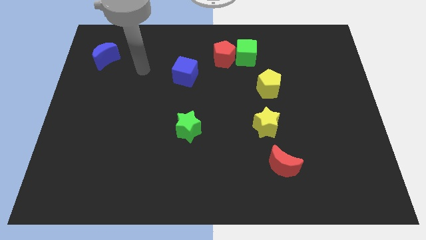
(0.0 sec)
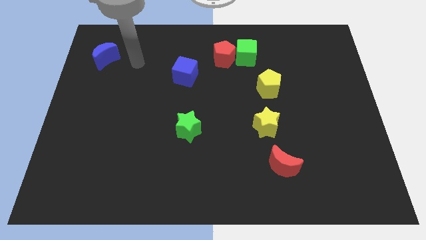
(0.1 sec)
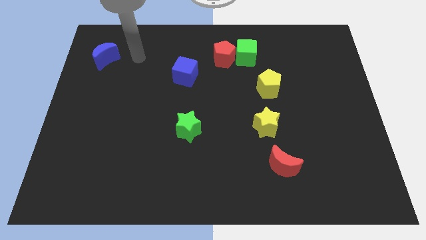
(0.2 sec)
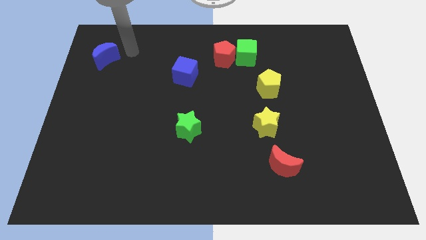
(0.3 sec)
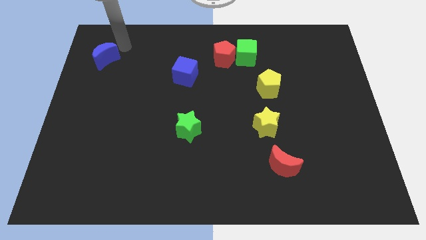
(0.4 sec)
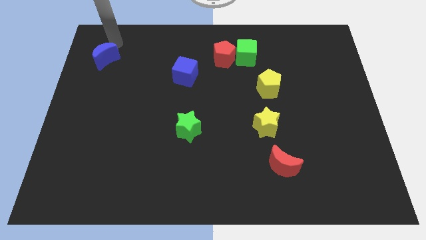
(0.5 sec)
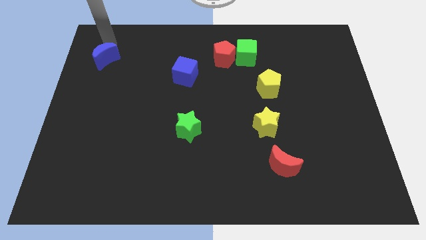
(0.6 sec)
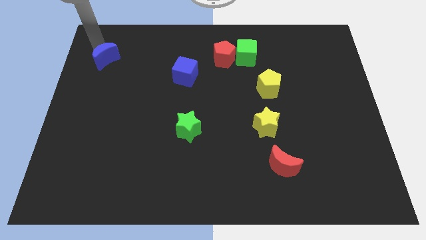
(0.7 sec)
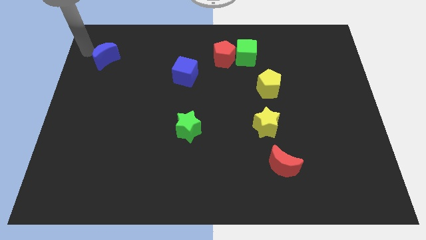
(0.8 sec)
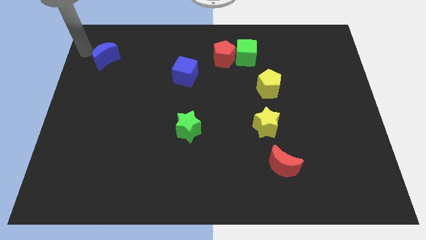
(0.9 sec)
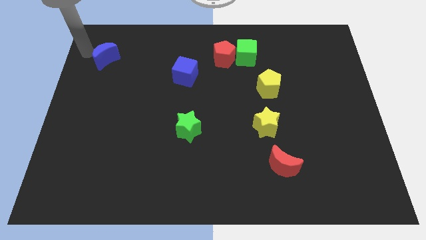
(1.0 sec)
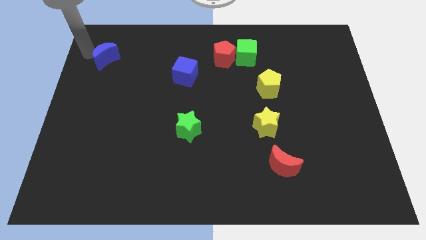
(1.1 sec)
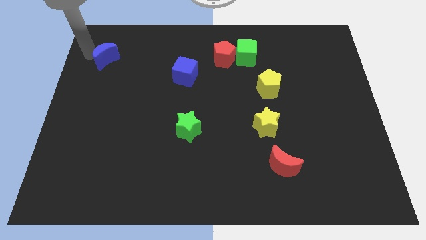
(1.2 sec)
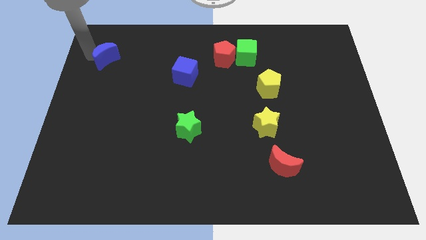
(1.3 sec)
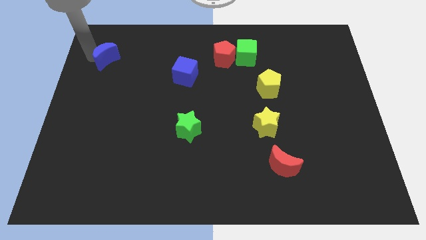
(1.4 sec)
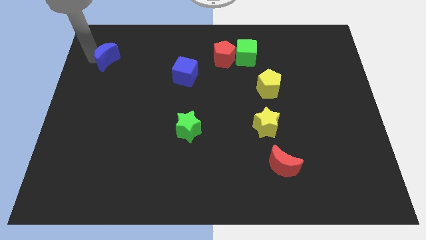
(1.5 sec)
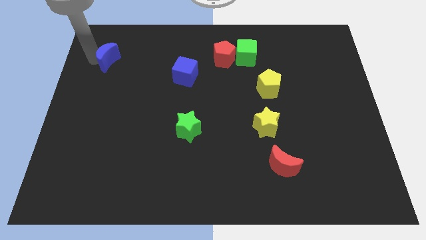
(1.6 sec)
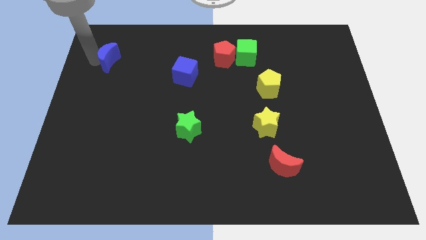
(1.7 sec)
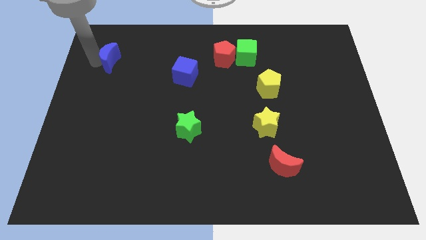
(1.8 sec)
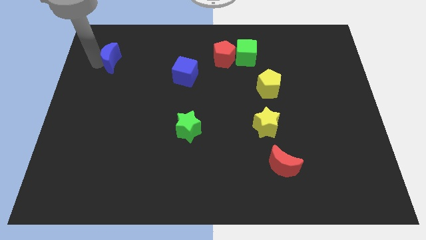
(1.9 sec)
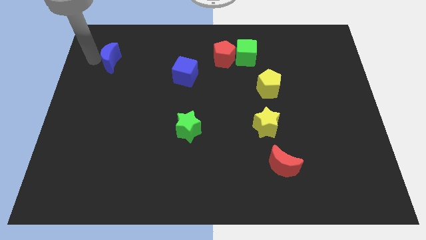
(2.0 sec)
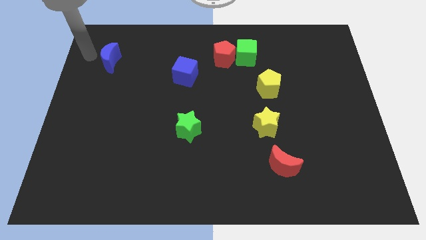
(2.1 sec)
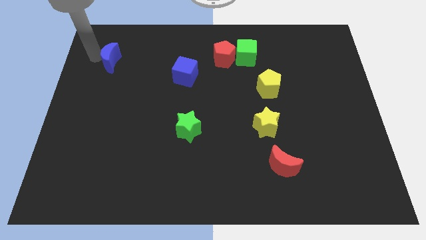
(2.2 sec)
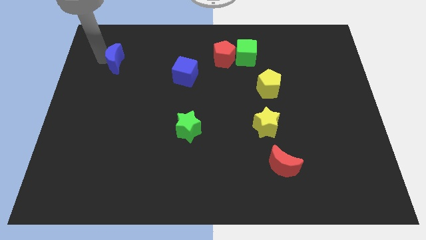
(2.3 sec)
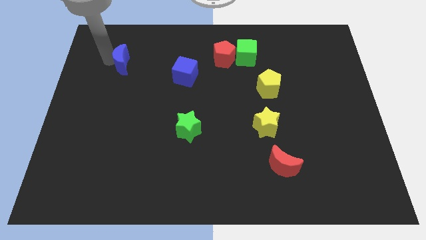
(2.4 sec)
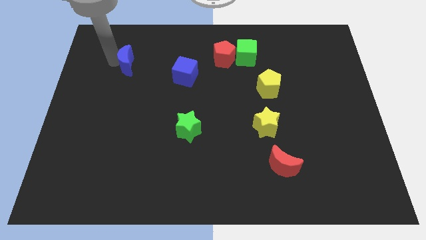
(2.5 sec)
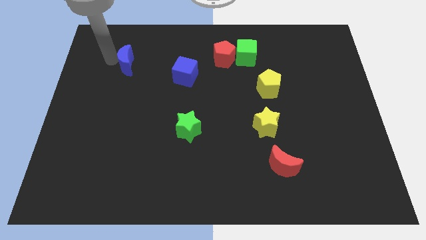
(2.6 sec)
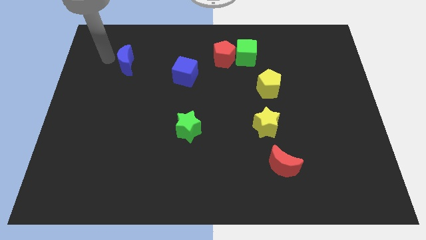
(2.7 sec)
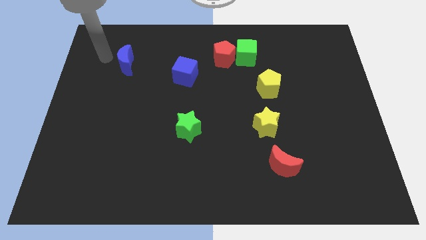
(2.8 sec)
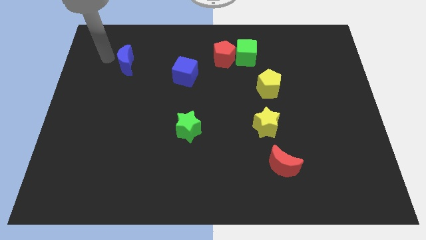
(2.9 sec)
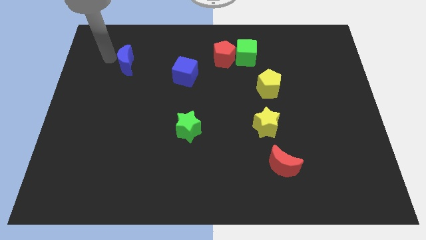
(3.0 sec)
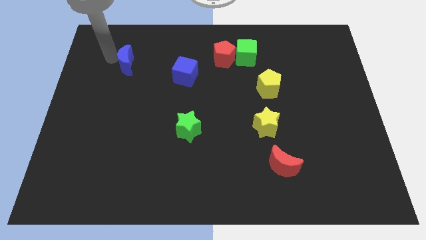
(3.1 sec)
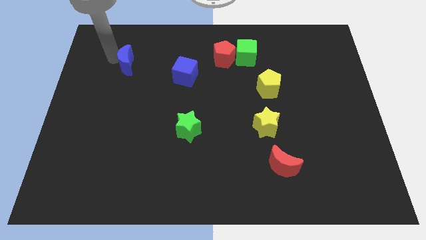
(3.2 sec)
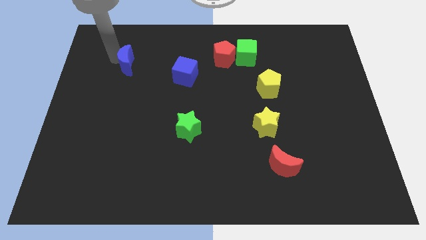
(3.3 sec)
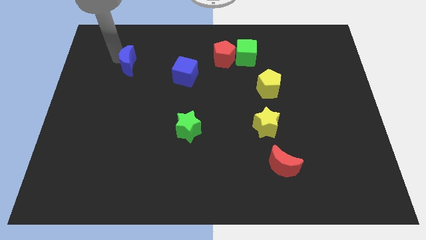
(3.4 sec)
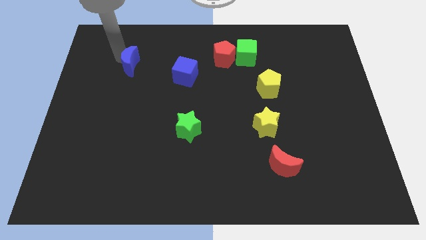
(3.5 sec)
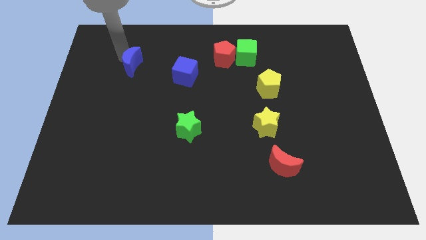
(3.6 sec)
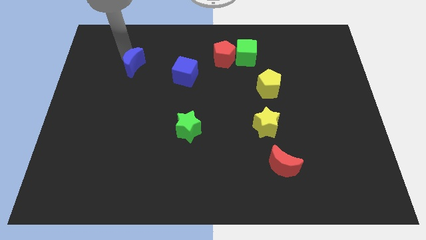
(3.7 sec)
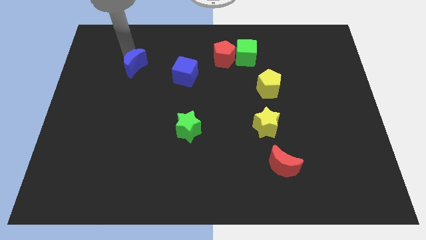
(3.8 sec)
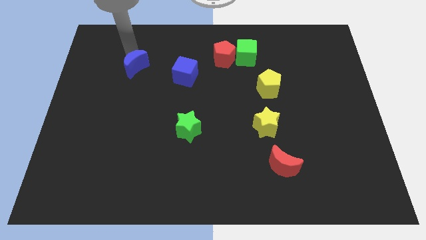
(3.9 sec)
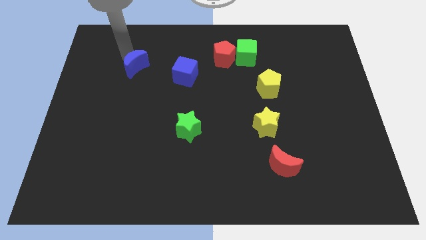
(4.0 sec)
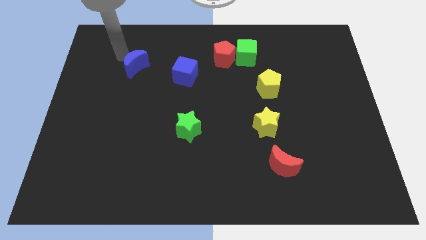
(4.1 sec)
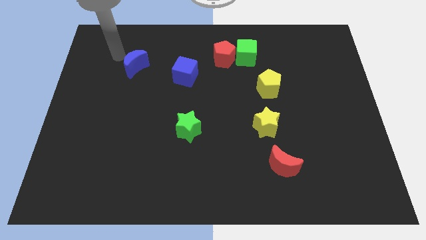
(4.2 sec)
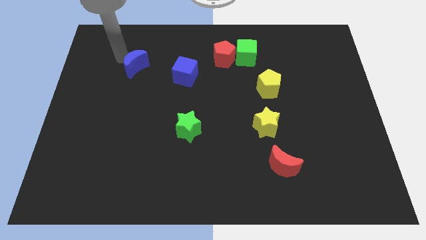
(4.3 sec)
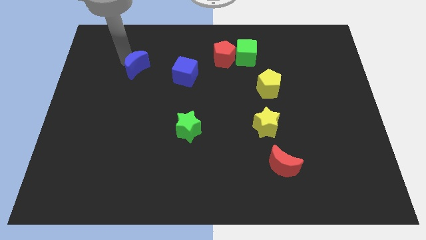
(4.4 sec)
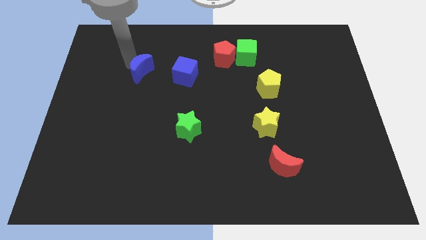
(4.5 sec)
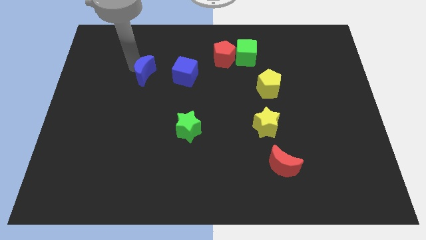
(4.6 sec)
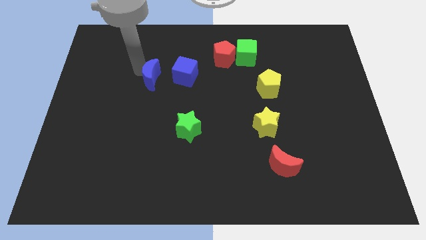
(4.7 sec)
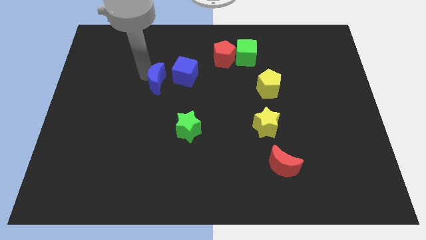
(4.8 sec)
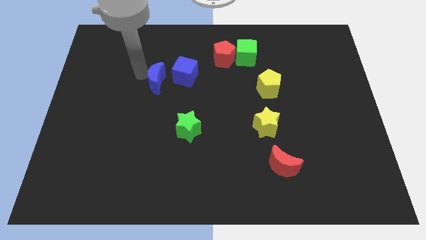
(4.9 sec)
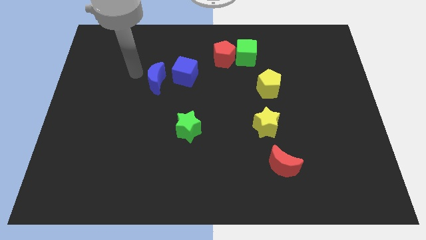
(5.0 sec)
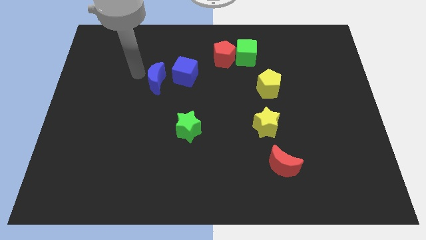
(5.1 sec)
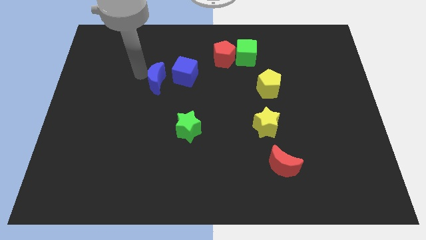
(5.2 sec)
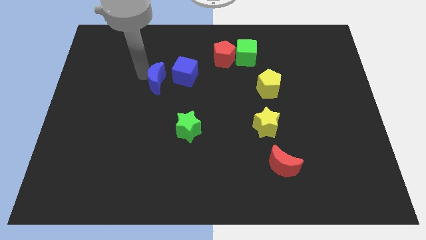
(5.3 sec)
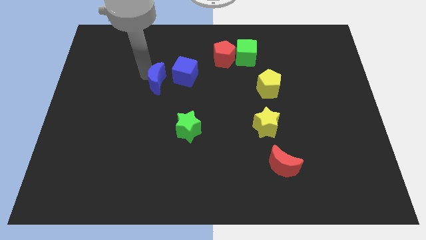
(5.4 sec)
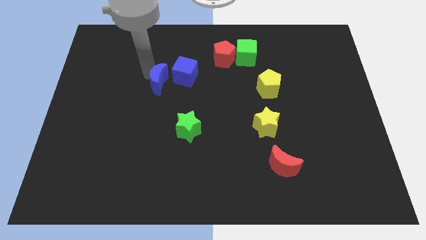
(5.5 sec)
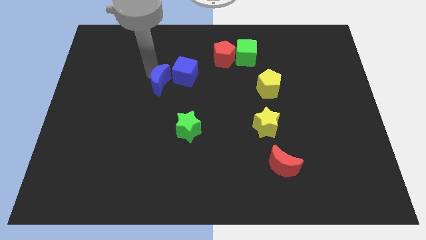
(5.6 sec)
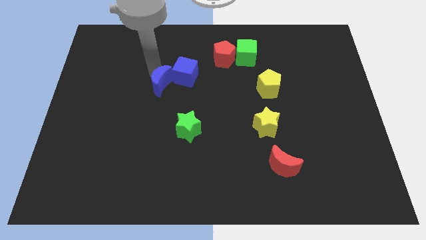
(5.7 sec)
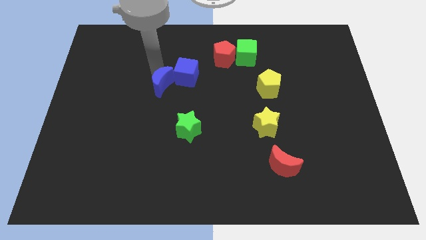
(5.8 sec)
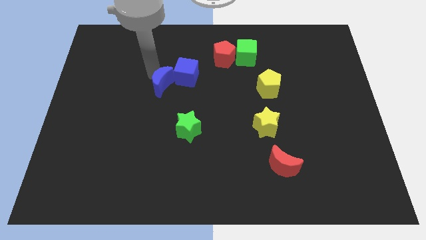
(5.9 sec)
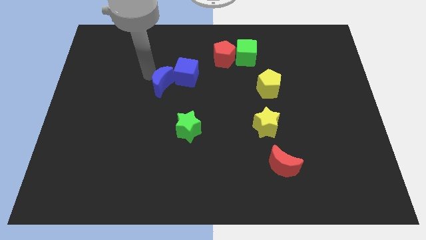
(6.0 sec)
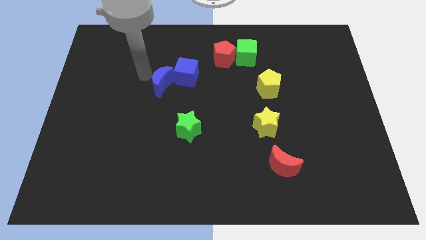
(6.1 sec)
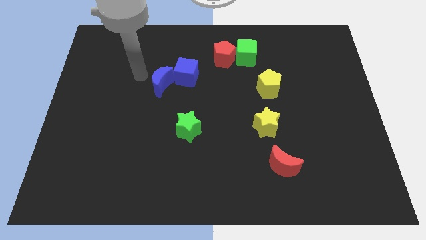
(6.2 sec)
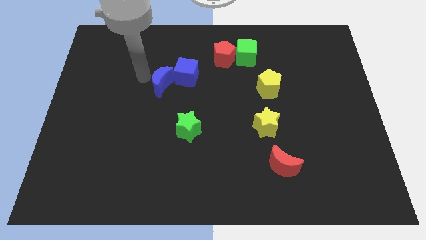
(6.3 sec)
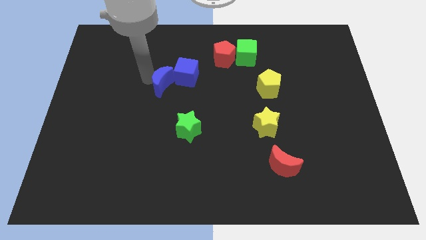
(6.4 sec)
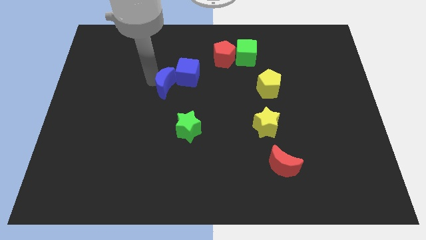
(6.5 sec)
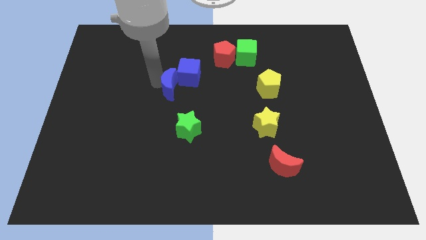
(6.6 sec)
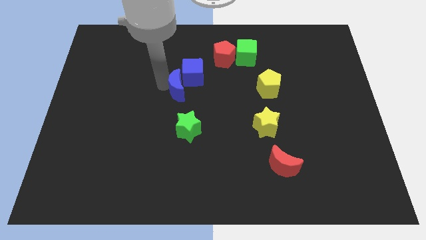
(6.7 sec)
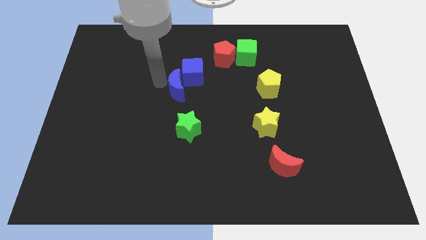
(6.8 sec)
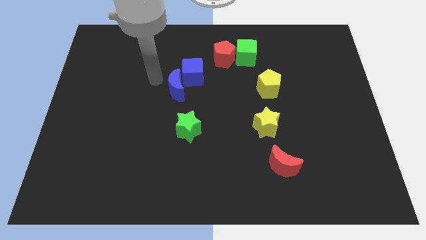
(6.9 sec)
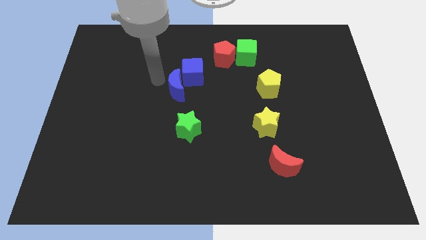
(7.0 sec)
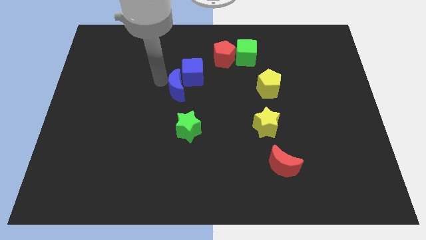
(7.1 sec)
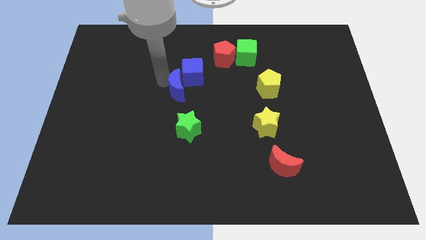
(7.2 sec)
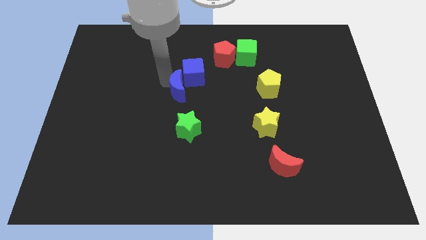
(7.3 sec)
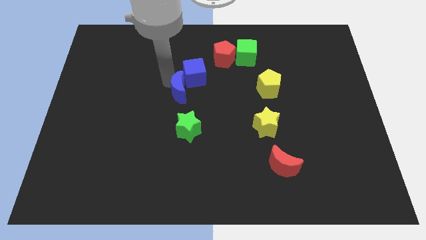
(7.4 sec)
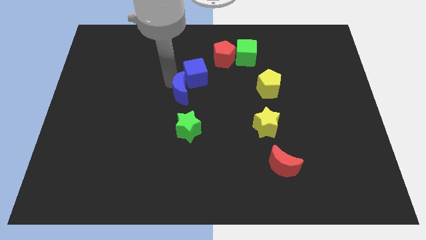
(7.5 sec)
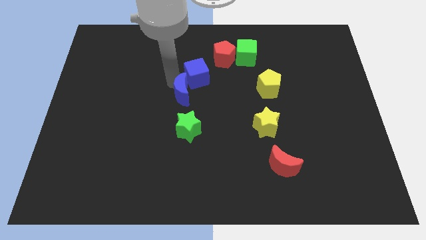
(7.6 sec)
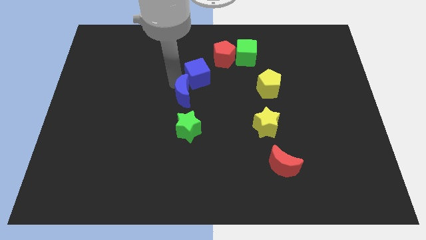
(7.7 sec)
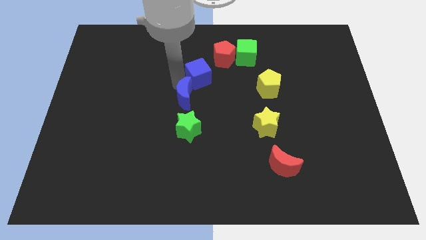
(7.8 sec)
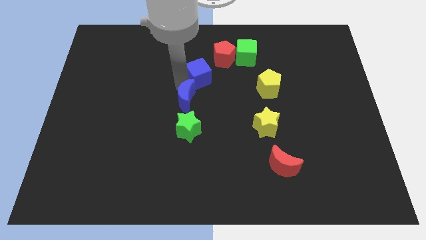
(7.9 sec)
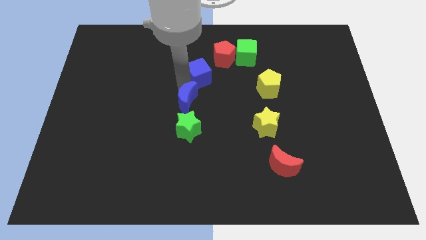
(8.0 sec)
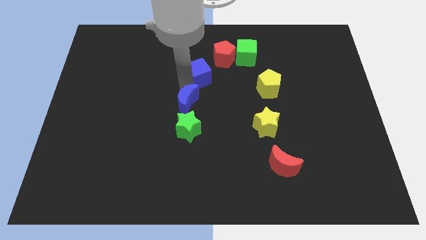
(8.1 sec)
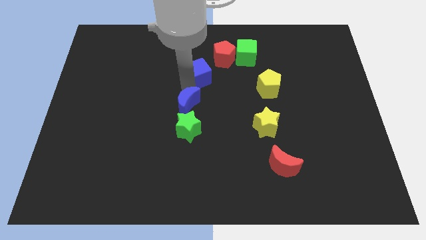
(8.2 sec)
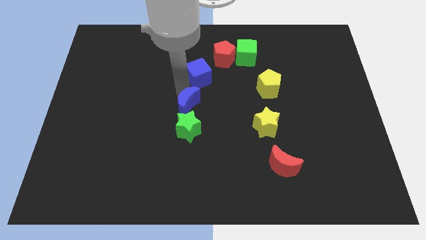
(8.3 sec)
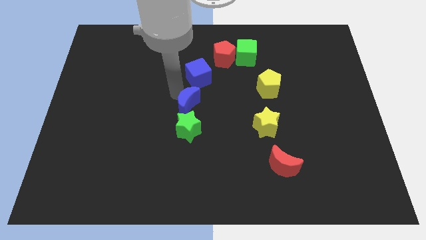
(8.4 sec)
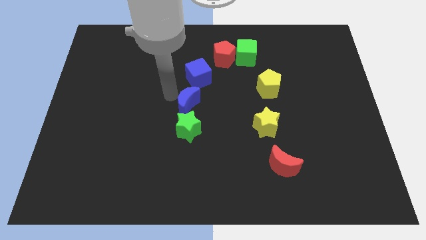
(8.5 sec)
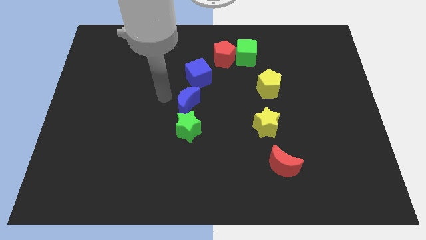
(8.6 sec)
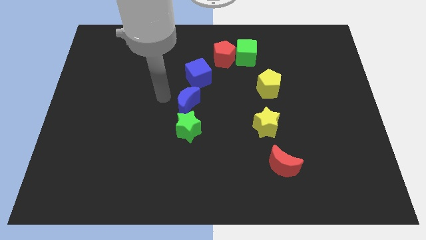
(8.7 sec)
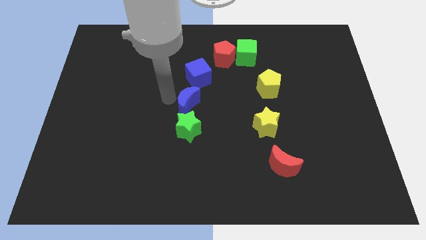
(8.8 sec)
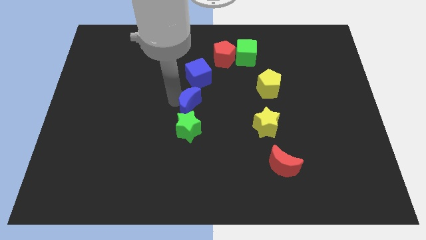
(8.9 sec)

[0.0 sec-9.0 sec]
move the blue moon to the top right side of the green star
